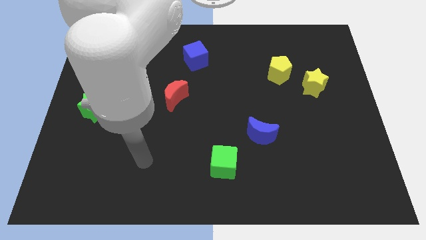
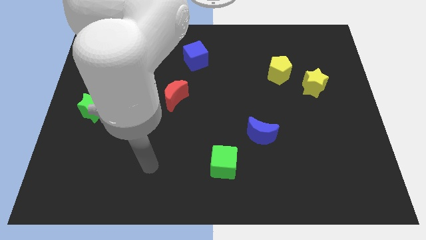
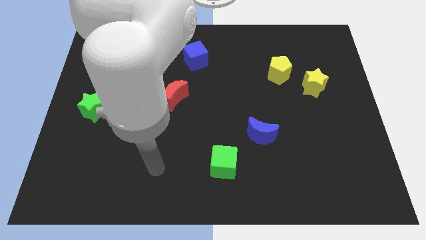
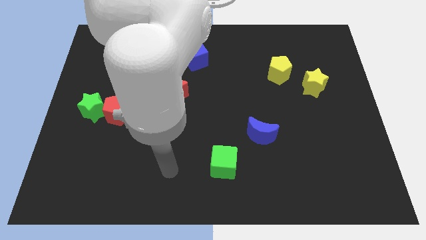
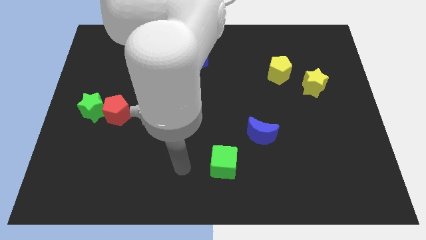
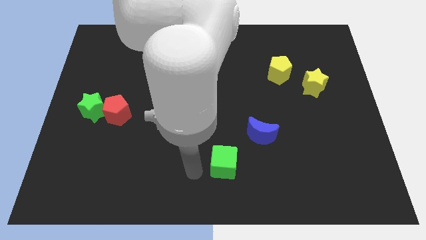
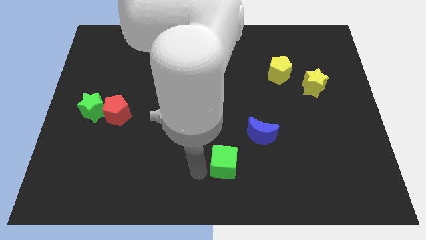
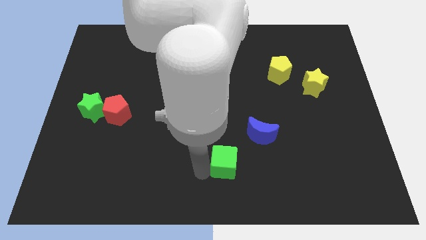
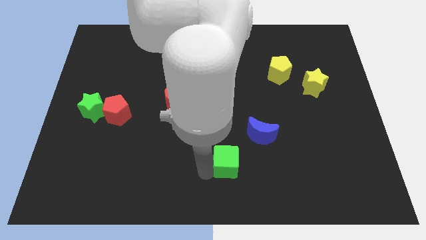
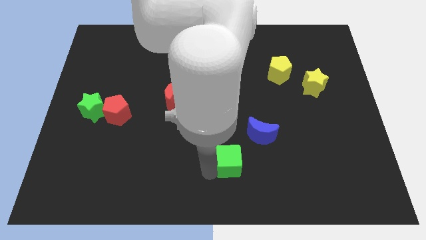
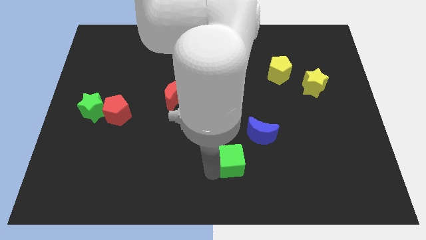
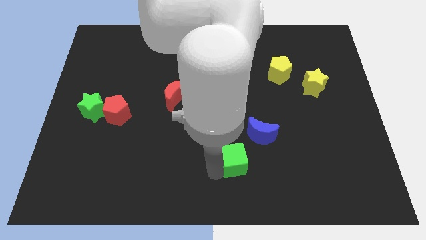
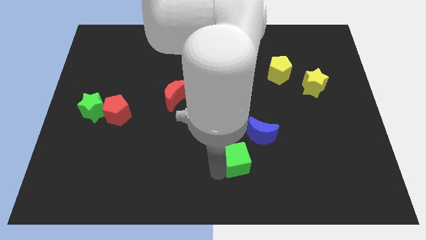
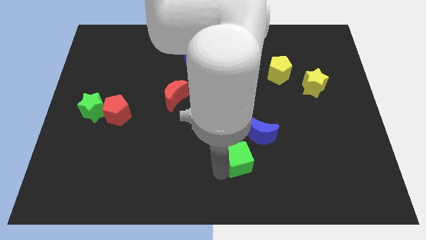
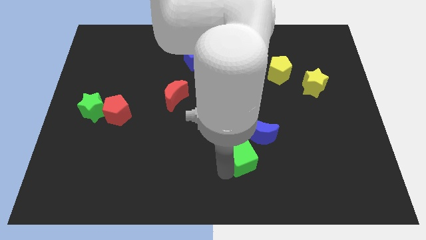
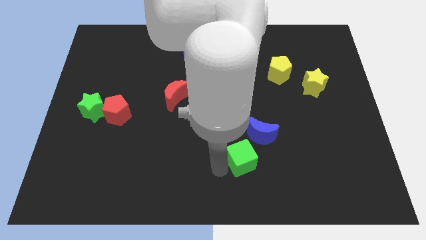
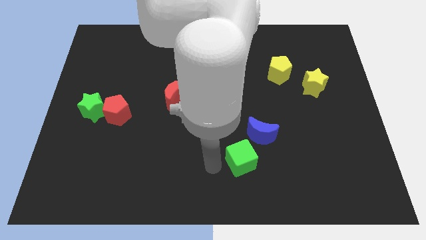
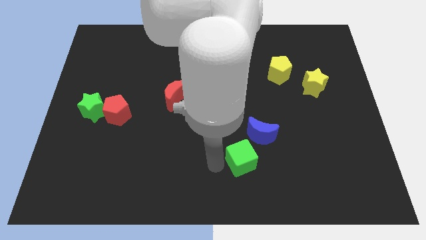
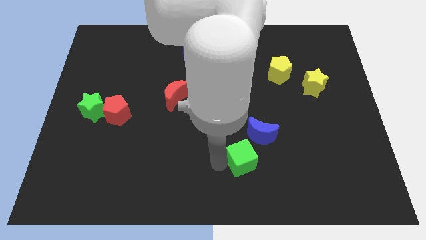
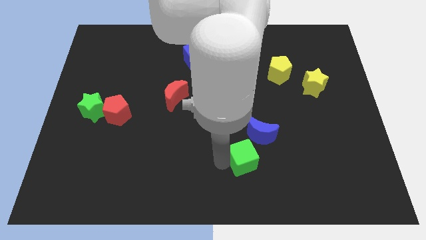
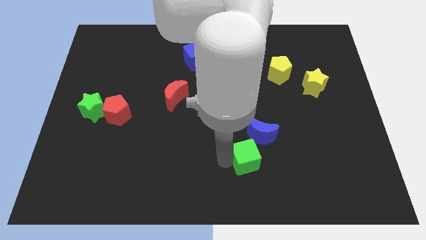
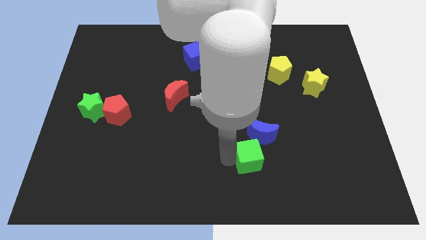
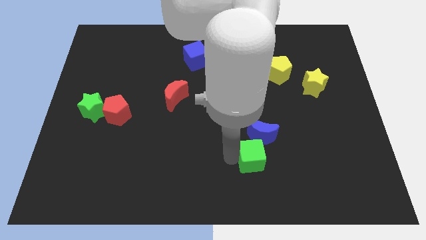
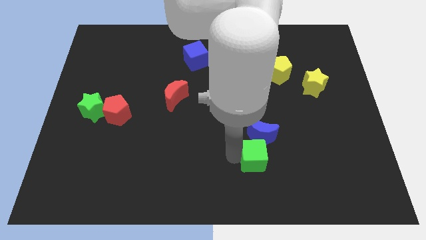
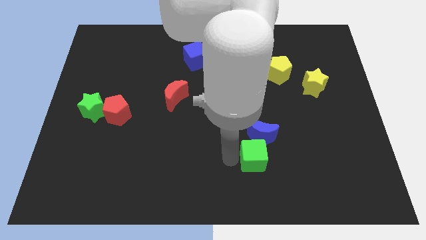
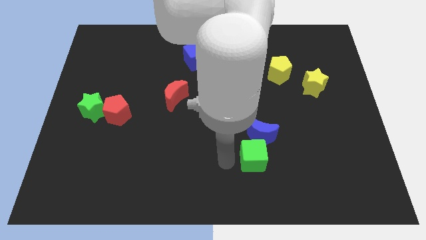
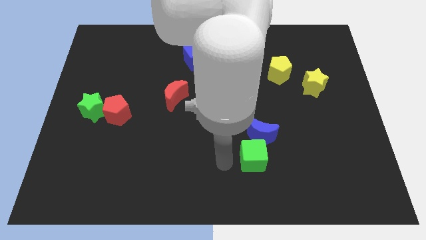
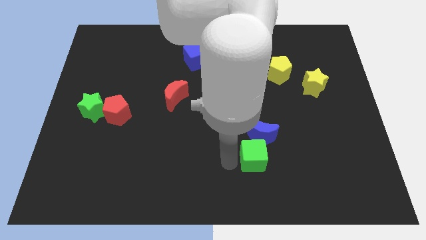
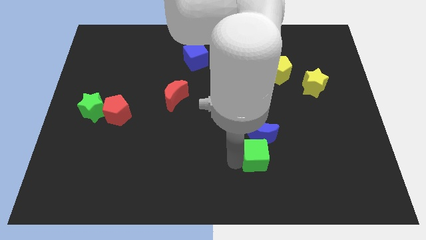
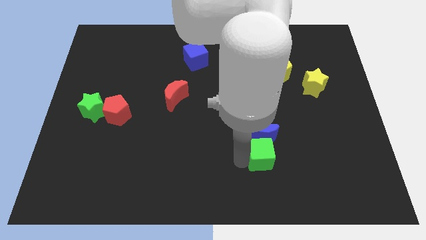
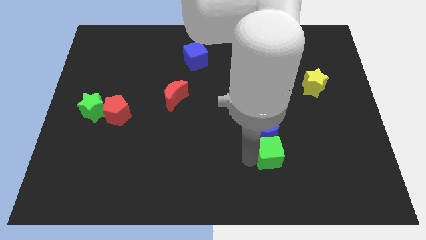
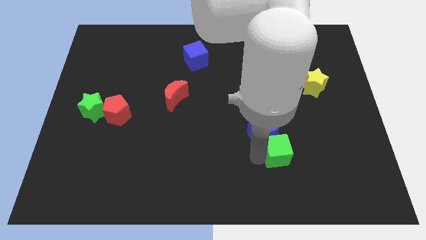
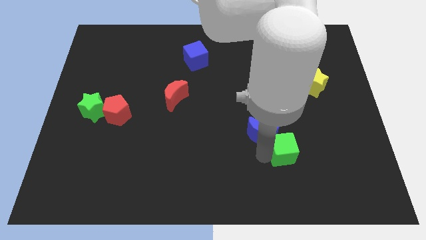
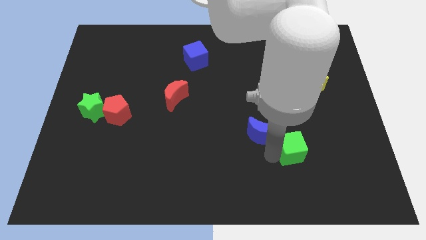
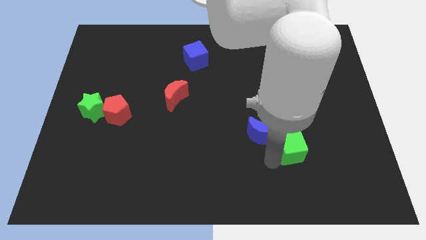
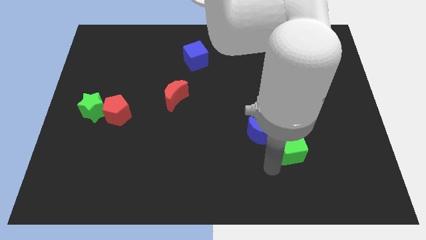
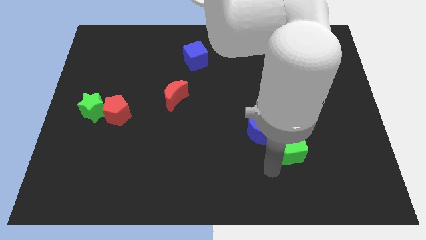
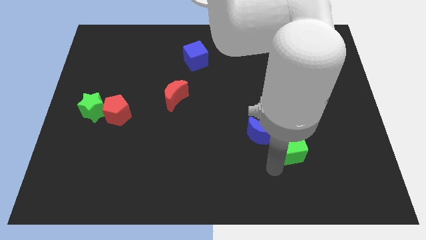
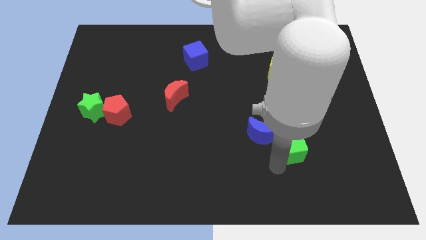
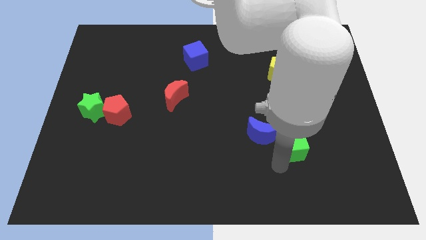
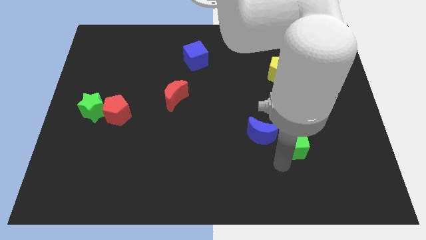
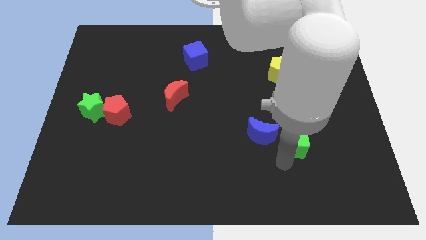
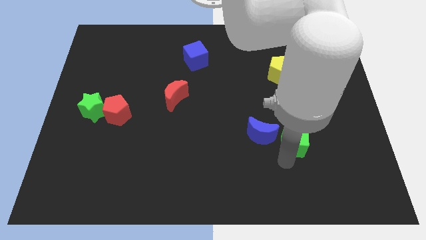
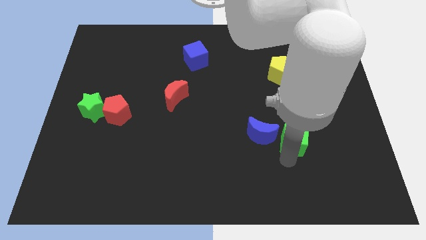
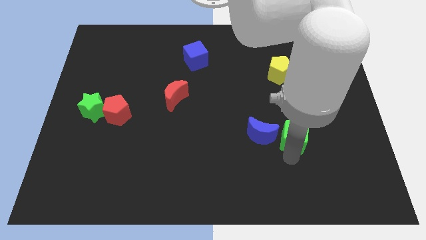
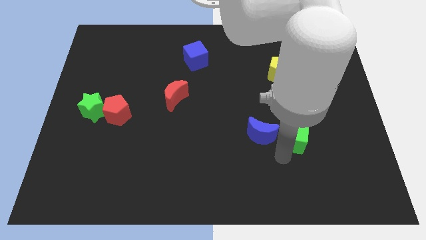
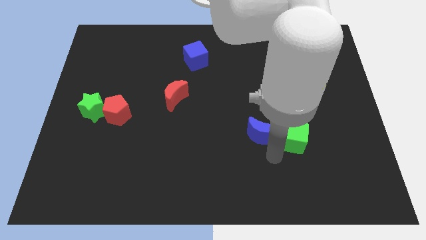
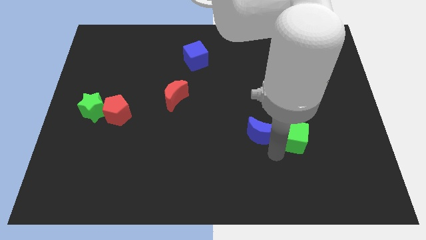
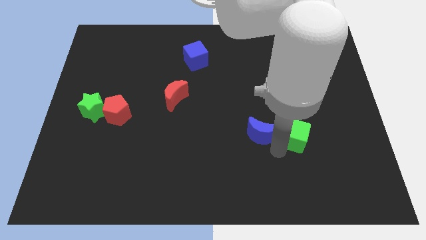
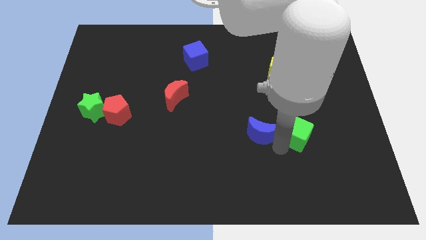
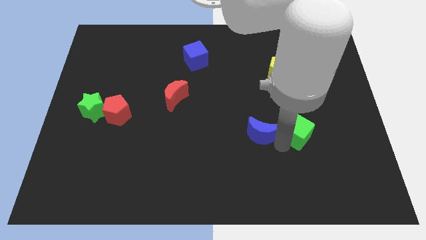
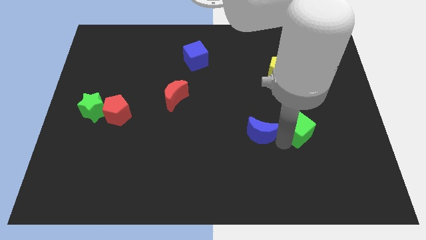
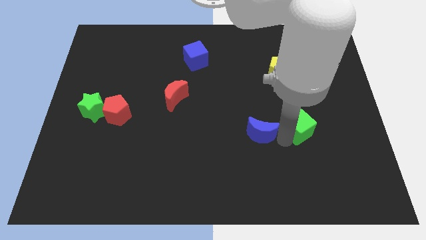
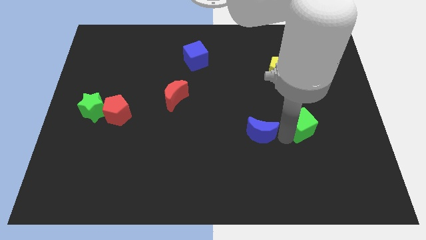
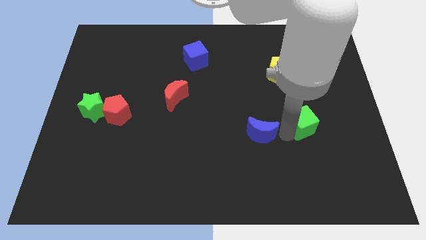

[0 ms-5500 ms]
push the green cube to the bottom of the yellow star

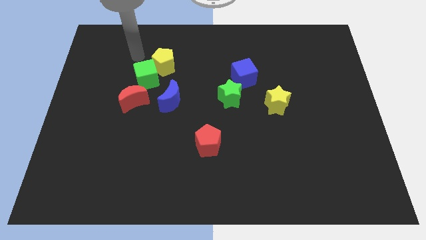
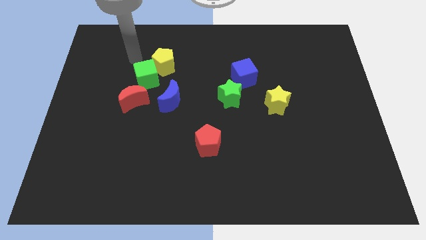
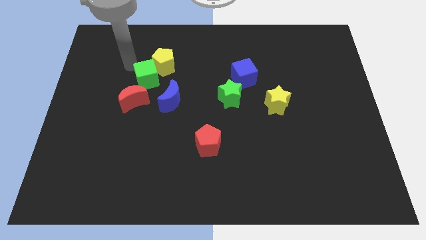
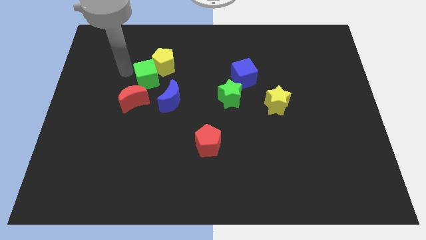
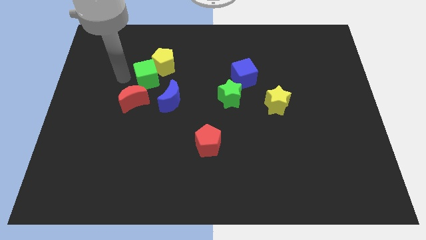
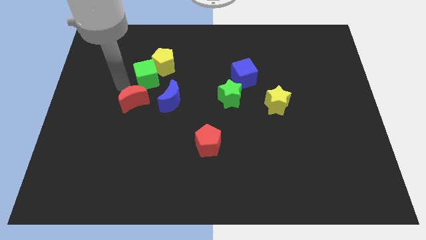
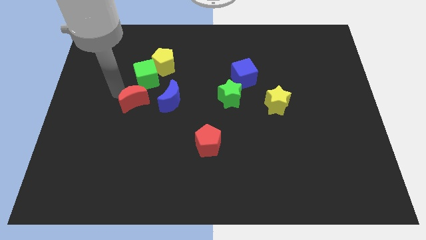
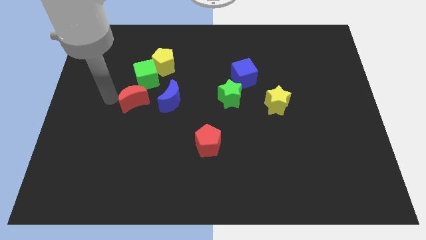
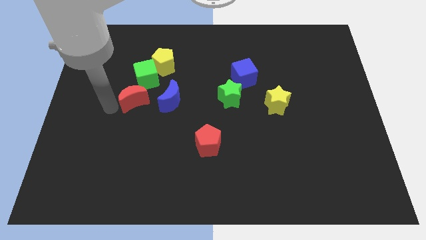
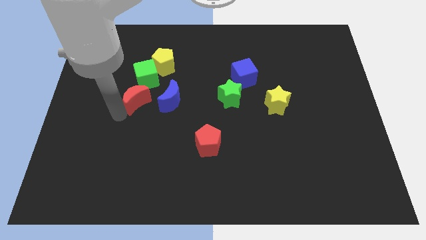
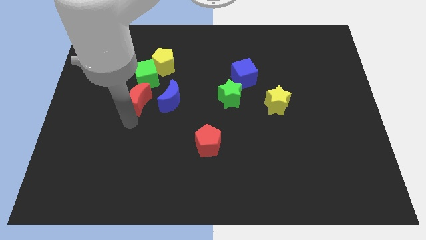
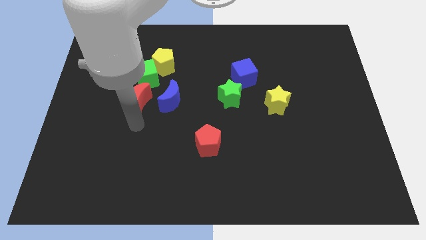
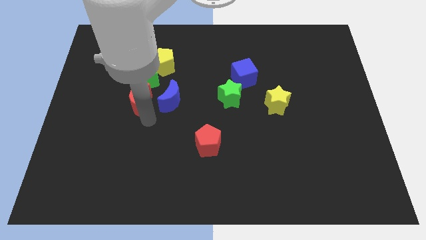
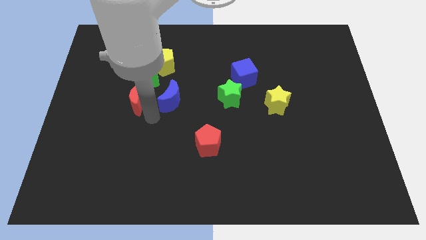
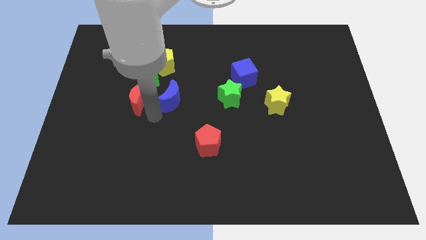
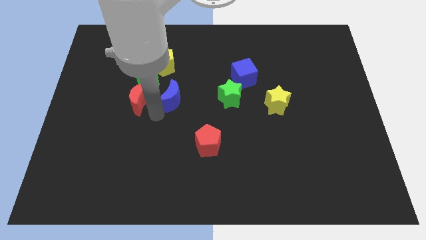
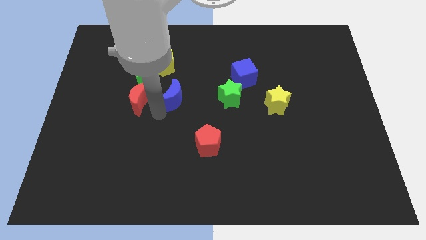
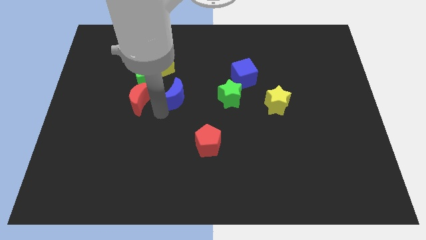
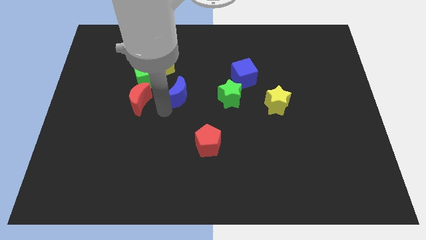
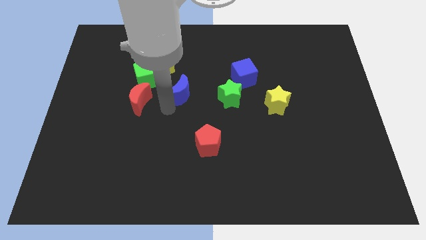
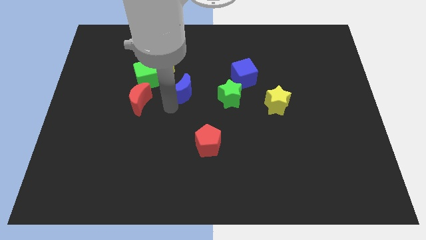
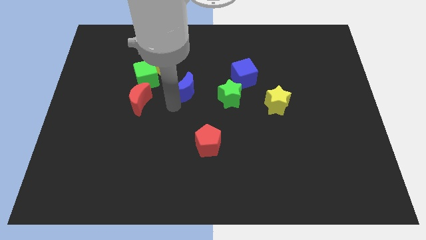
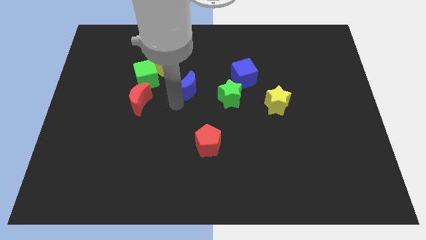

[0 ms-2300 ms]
push the blue moon just left of the blue cube
